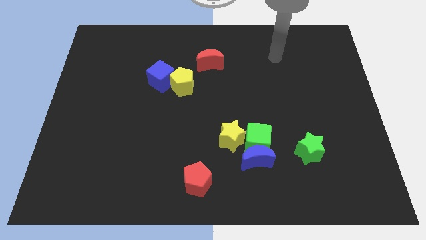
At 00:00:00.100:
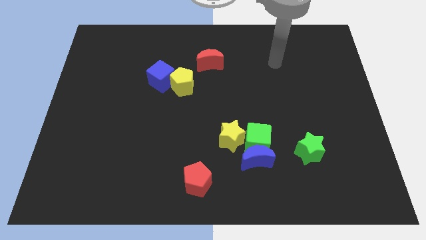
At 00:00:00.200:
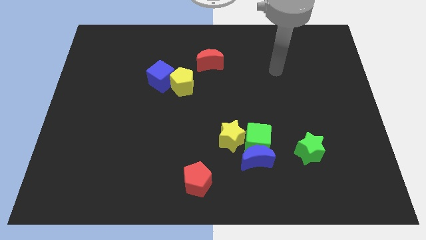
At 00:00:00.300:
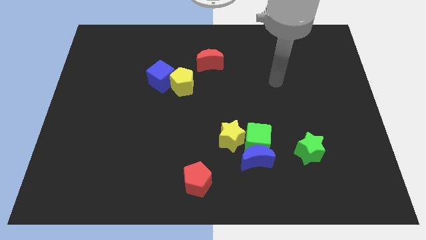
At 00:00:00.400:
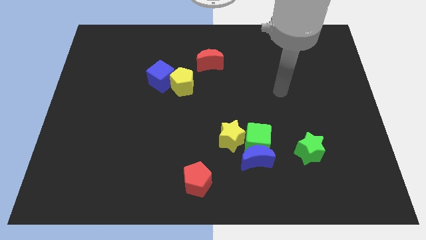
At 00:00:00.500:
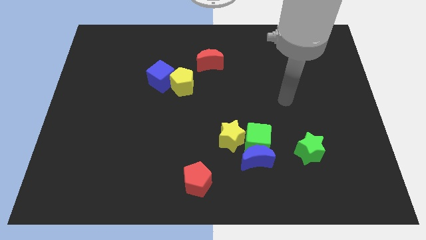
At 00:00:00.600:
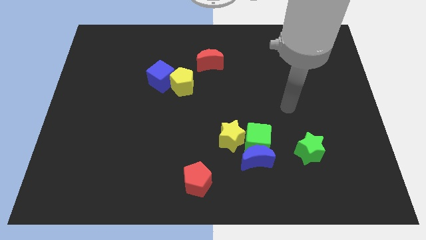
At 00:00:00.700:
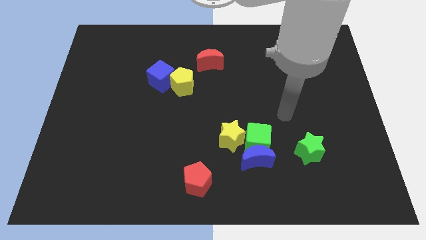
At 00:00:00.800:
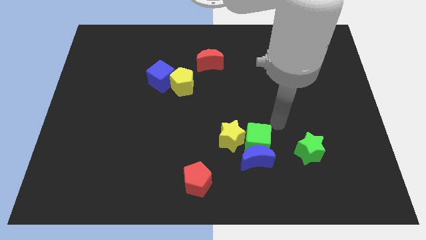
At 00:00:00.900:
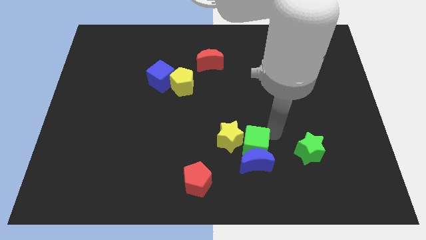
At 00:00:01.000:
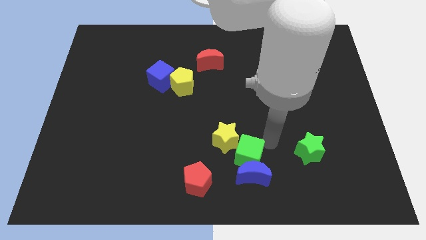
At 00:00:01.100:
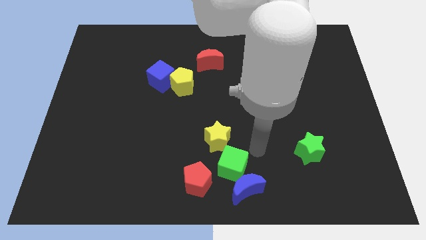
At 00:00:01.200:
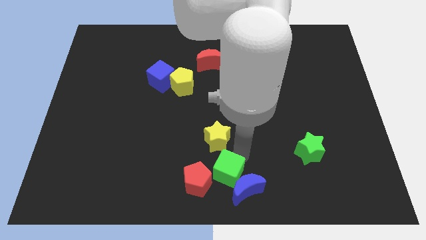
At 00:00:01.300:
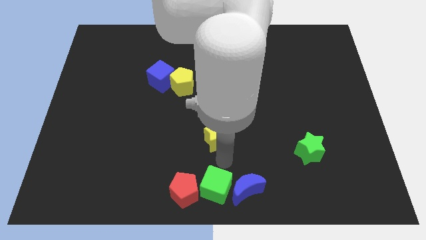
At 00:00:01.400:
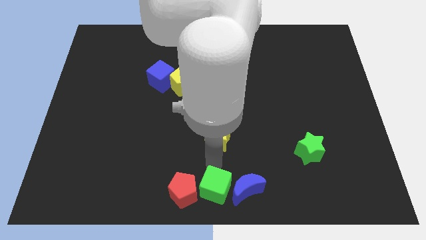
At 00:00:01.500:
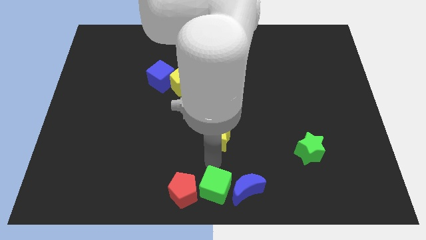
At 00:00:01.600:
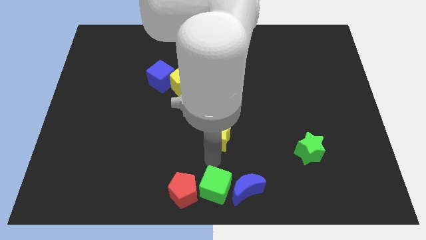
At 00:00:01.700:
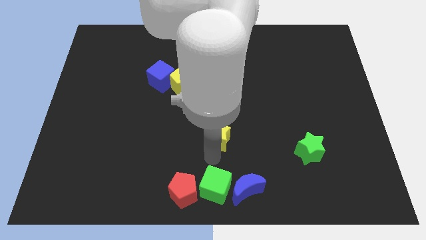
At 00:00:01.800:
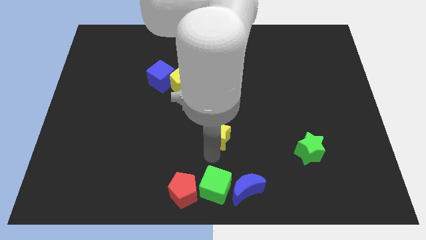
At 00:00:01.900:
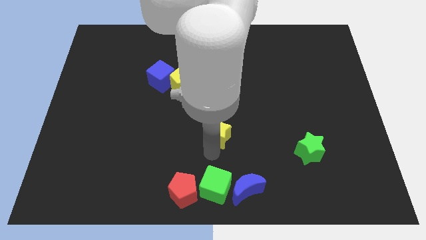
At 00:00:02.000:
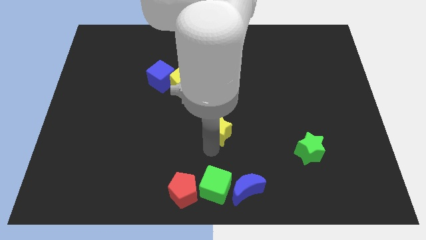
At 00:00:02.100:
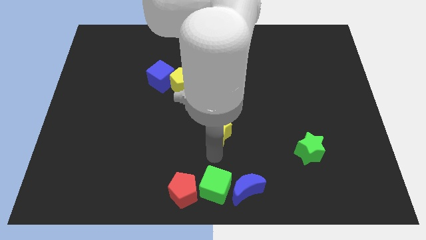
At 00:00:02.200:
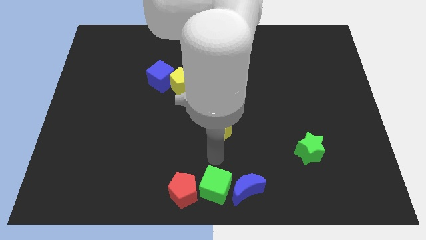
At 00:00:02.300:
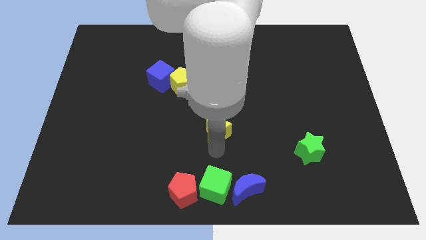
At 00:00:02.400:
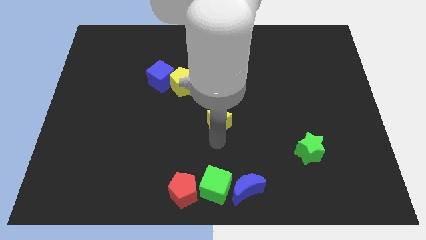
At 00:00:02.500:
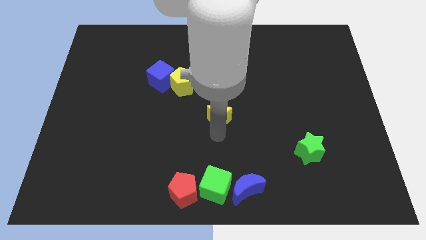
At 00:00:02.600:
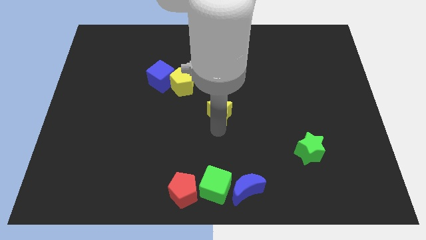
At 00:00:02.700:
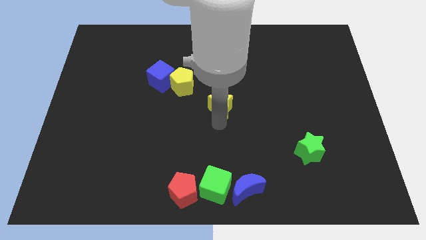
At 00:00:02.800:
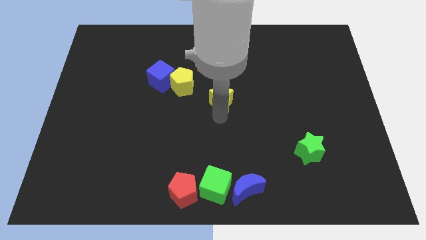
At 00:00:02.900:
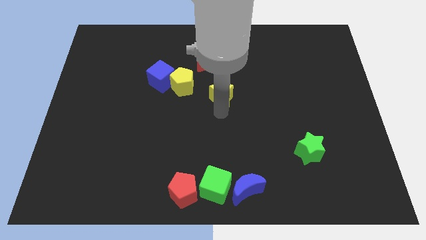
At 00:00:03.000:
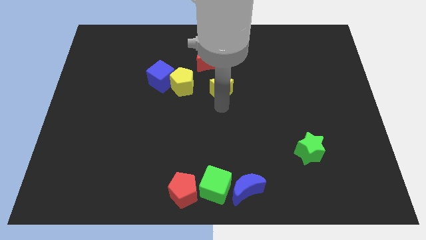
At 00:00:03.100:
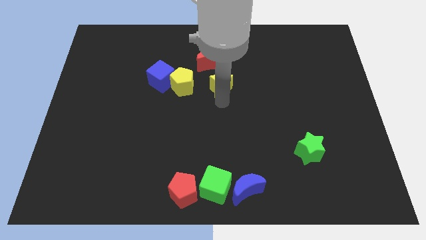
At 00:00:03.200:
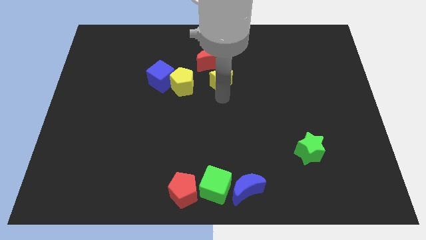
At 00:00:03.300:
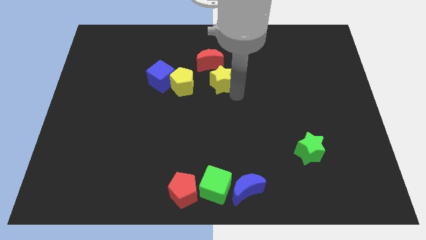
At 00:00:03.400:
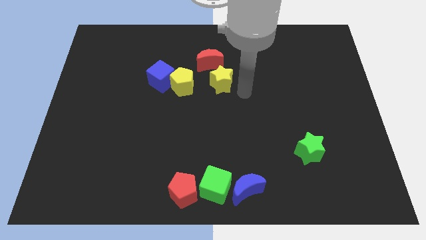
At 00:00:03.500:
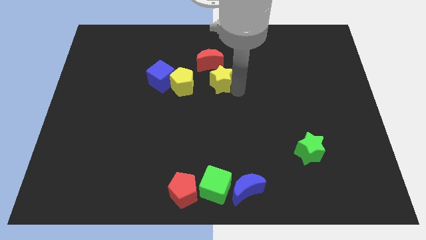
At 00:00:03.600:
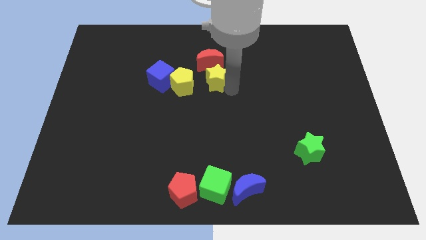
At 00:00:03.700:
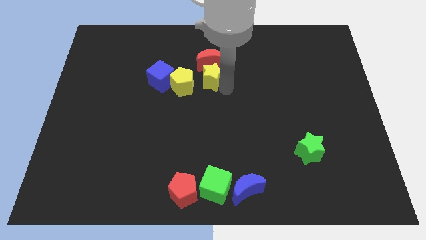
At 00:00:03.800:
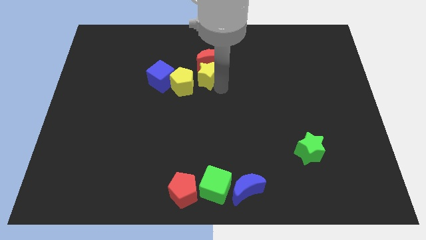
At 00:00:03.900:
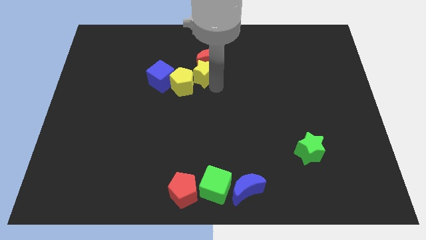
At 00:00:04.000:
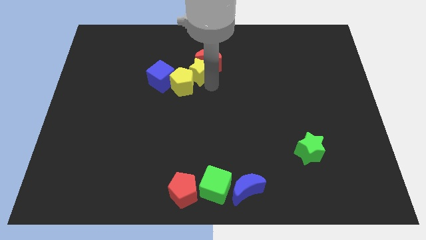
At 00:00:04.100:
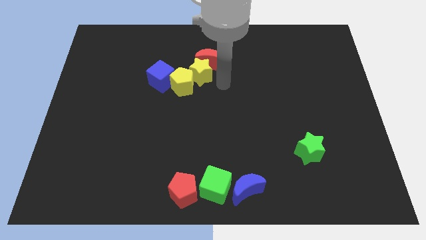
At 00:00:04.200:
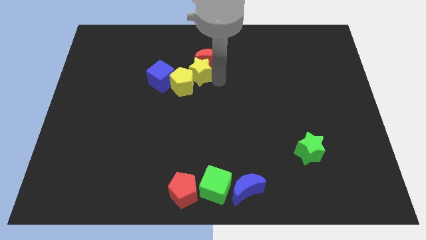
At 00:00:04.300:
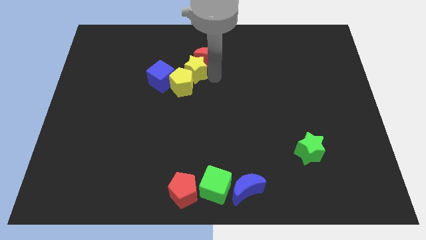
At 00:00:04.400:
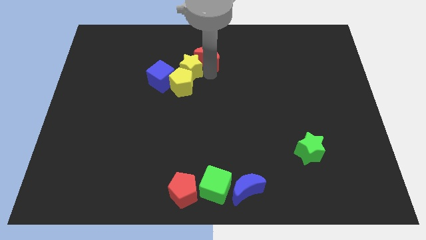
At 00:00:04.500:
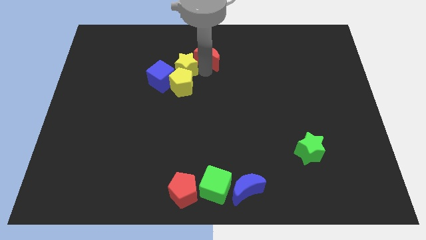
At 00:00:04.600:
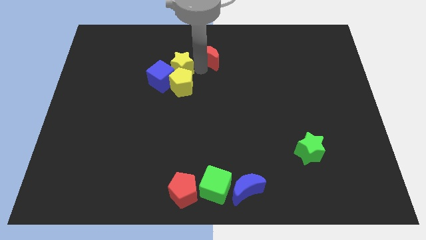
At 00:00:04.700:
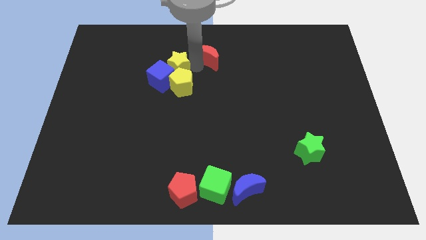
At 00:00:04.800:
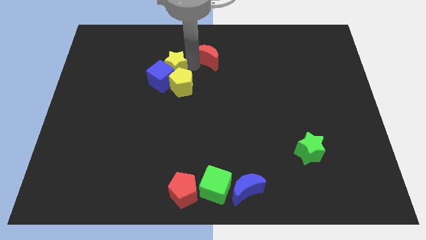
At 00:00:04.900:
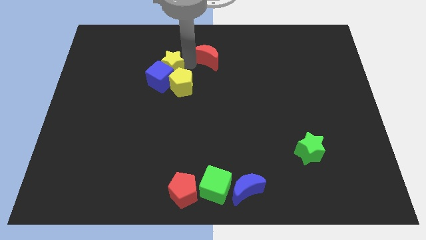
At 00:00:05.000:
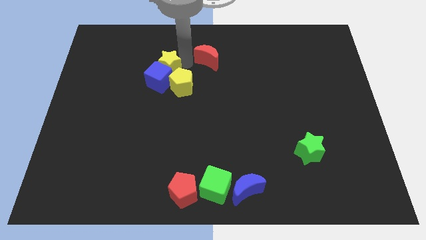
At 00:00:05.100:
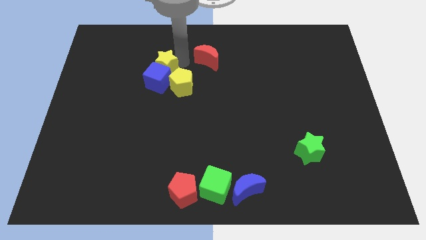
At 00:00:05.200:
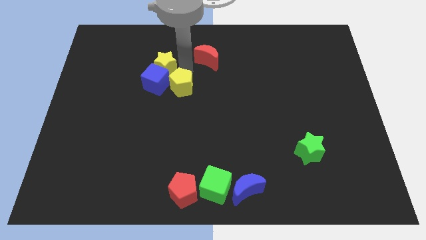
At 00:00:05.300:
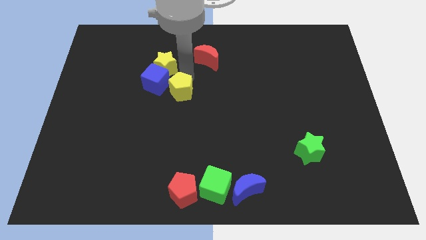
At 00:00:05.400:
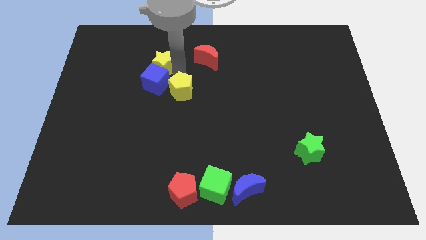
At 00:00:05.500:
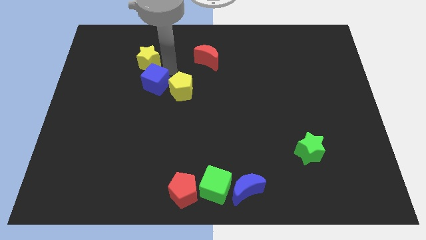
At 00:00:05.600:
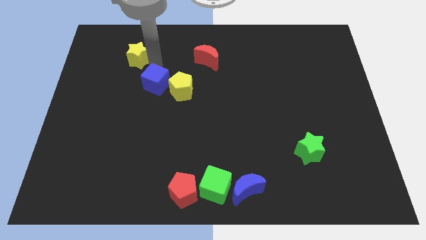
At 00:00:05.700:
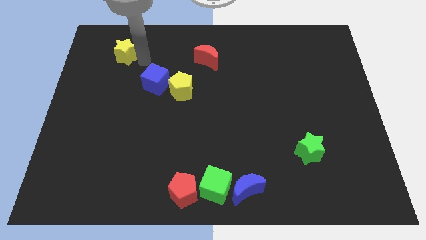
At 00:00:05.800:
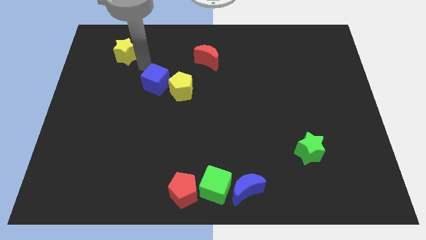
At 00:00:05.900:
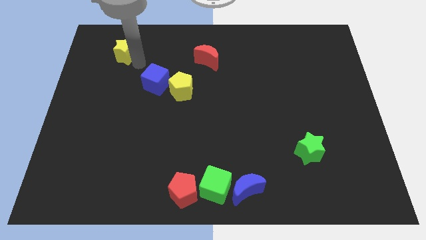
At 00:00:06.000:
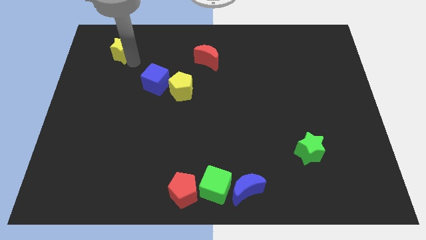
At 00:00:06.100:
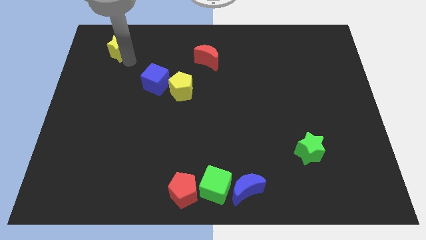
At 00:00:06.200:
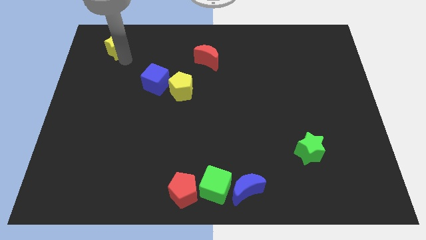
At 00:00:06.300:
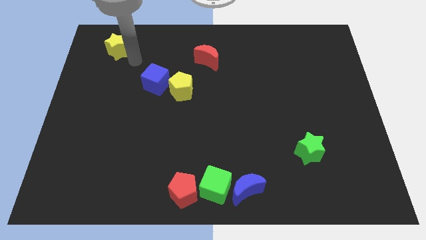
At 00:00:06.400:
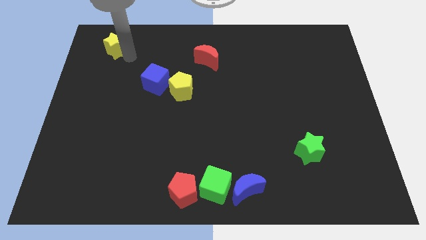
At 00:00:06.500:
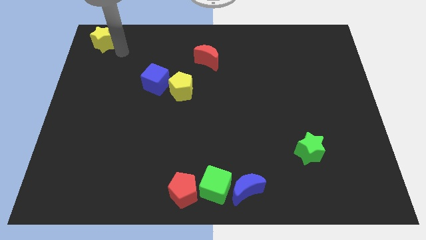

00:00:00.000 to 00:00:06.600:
slide the yellow star to the top left of the board
